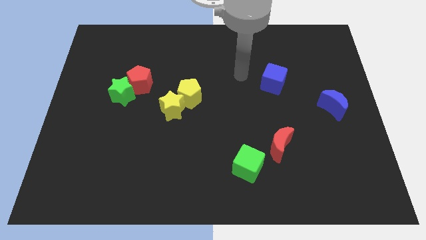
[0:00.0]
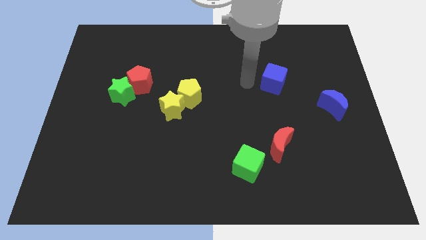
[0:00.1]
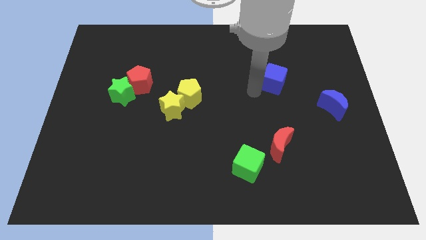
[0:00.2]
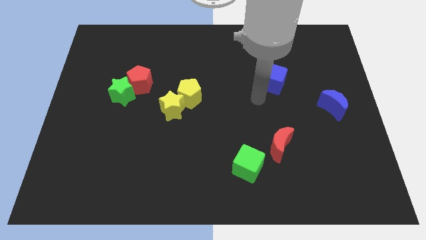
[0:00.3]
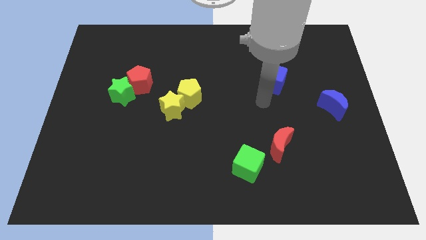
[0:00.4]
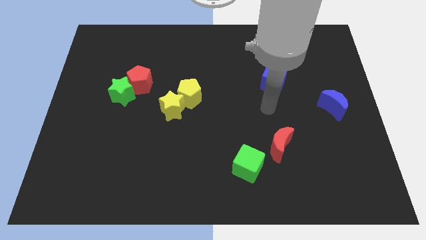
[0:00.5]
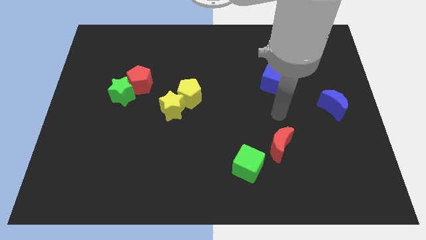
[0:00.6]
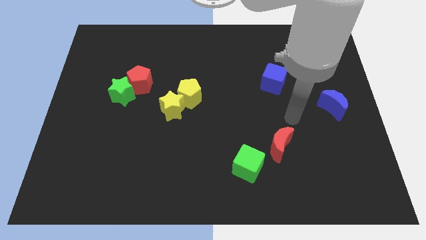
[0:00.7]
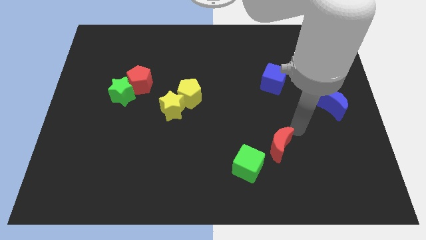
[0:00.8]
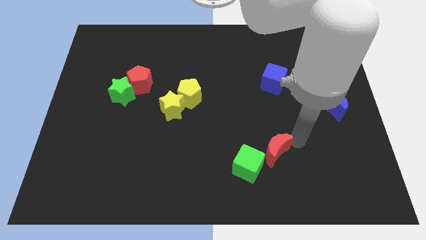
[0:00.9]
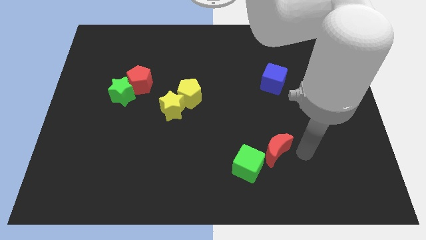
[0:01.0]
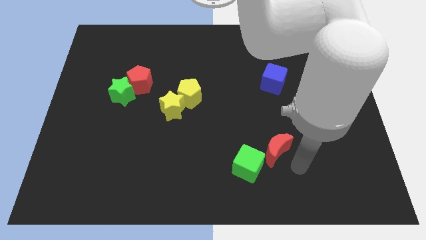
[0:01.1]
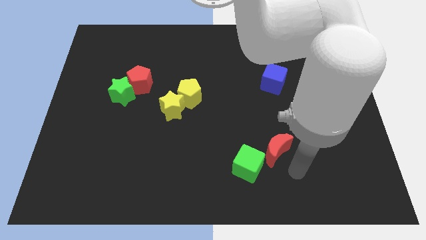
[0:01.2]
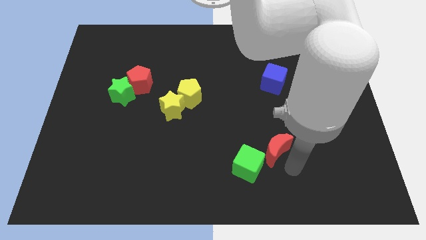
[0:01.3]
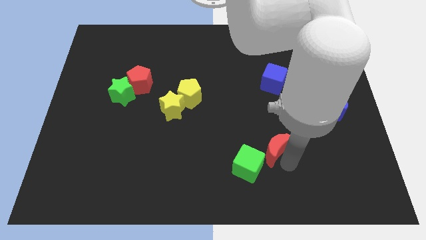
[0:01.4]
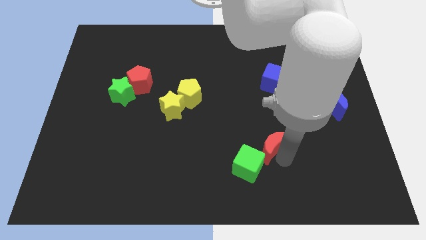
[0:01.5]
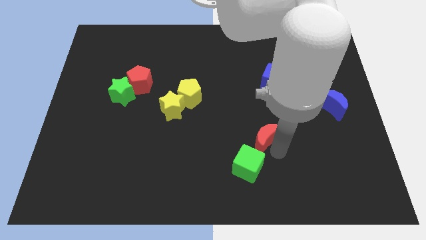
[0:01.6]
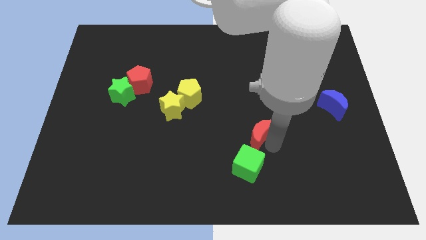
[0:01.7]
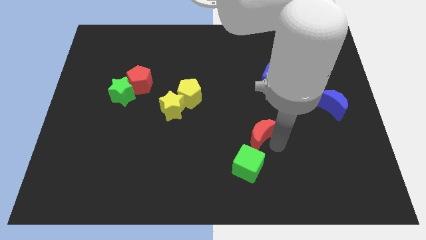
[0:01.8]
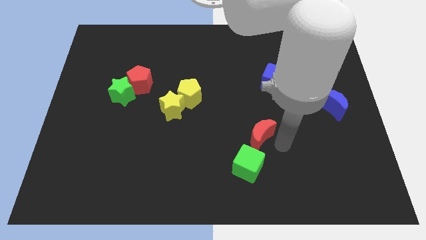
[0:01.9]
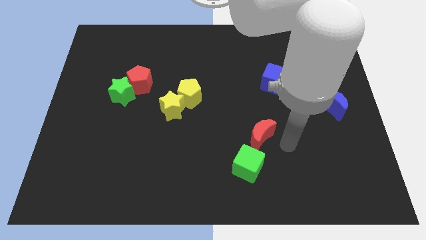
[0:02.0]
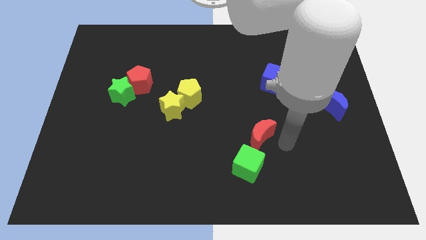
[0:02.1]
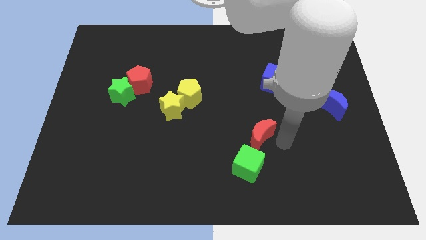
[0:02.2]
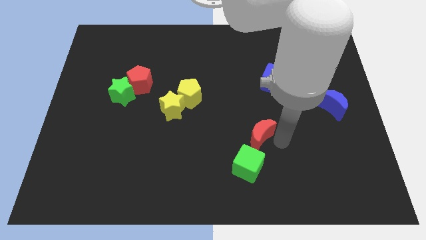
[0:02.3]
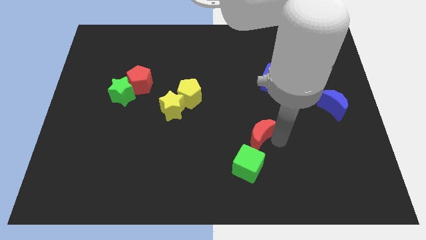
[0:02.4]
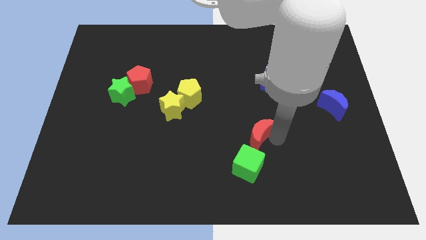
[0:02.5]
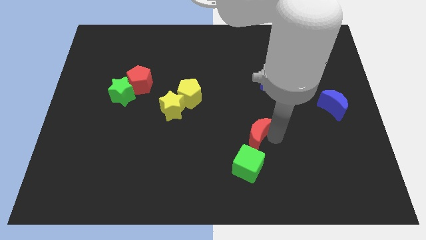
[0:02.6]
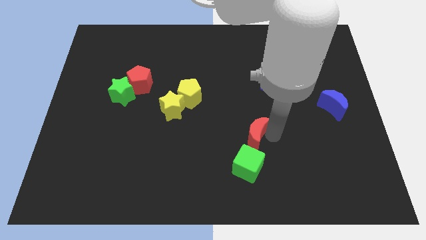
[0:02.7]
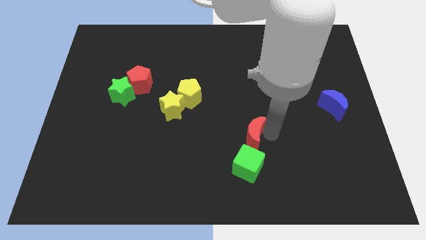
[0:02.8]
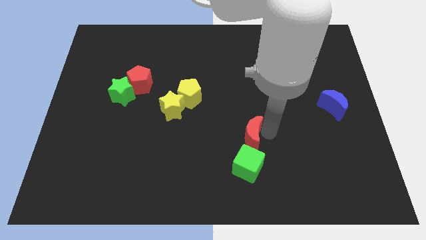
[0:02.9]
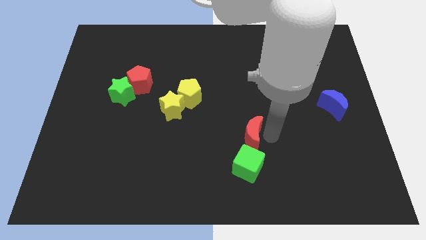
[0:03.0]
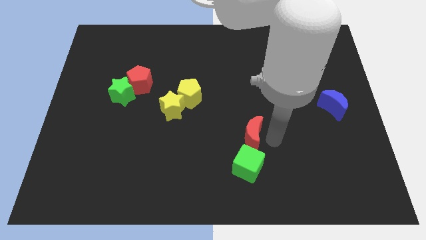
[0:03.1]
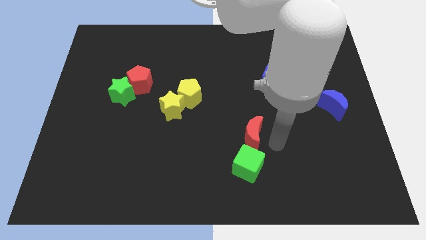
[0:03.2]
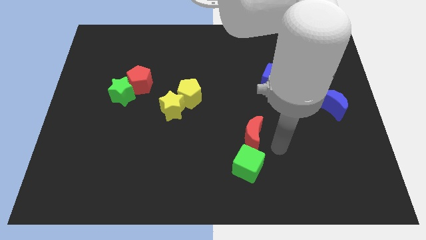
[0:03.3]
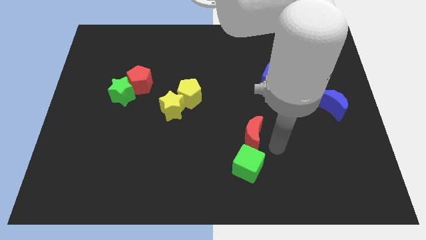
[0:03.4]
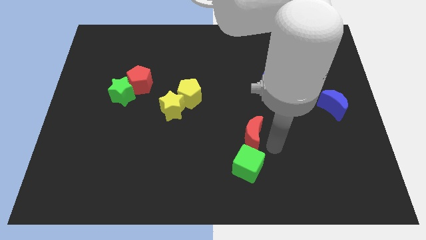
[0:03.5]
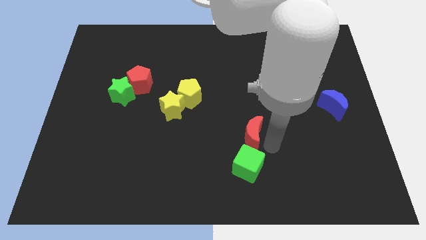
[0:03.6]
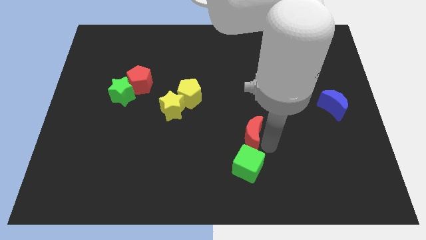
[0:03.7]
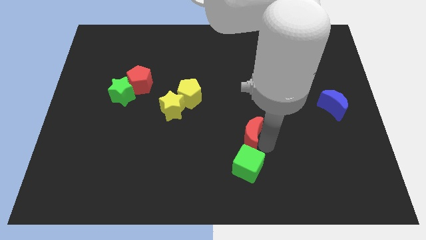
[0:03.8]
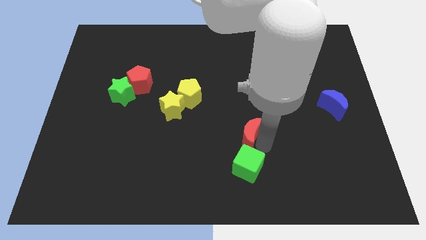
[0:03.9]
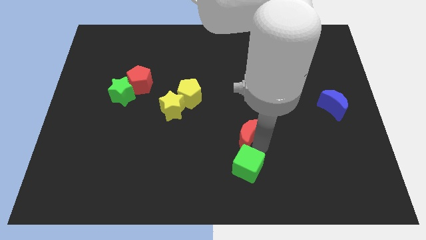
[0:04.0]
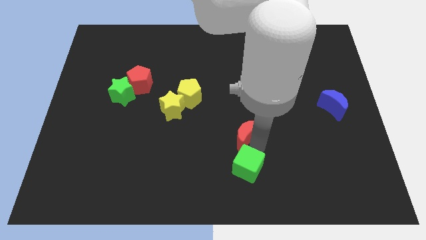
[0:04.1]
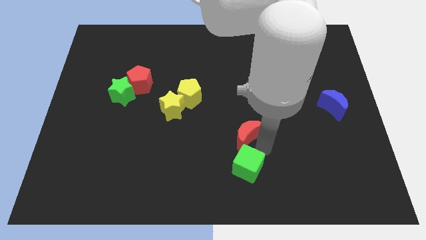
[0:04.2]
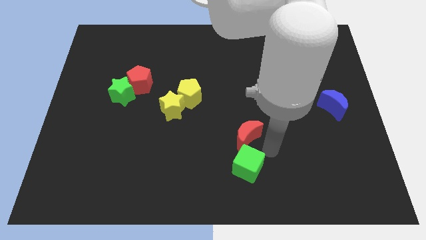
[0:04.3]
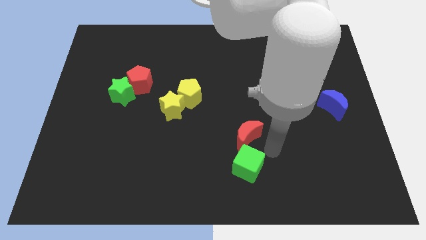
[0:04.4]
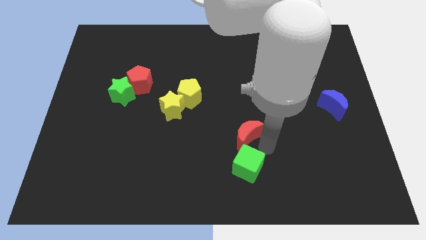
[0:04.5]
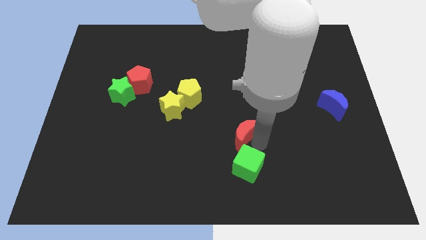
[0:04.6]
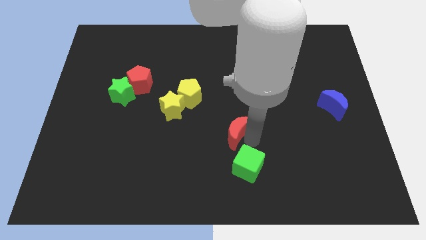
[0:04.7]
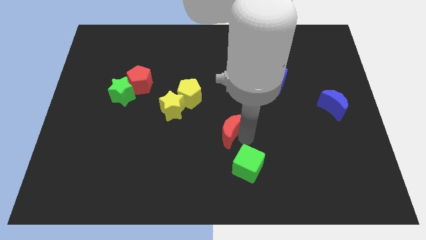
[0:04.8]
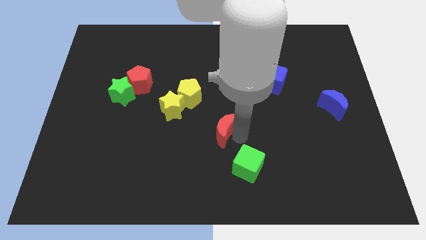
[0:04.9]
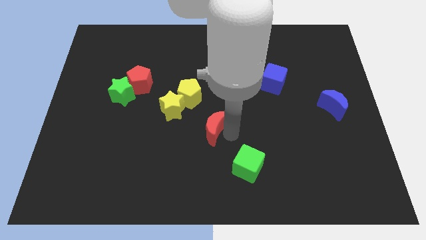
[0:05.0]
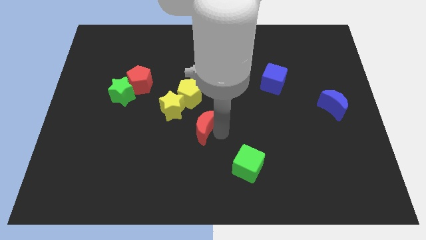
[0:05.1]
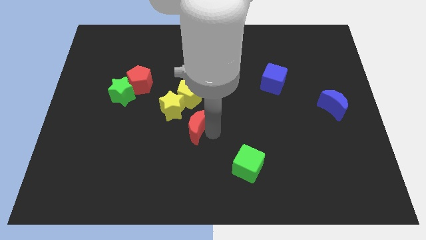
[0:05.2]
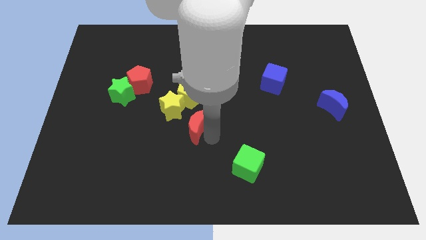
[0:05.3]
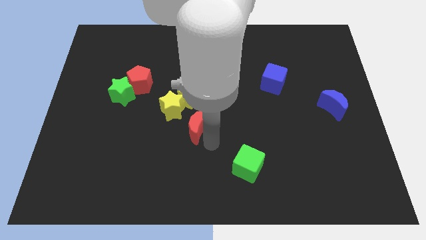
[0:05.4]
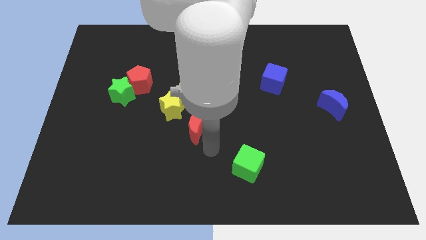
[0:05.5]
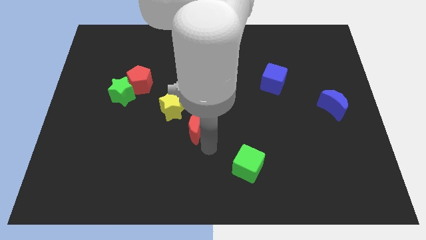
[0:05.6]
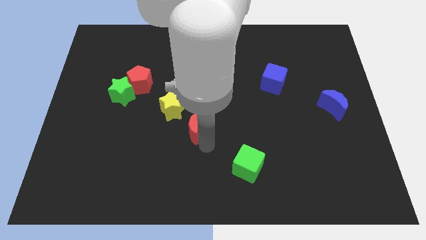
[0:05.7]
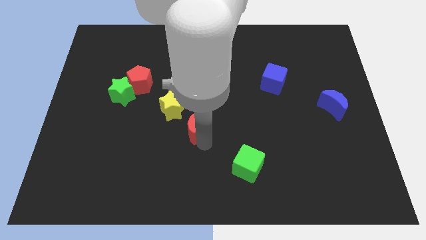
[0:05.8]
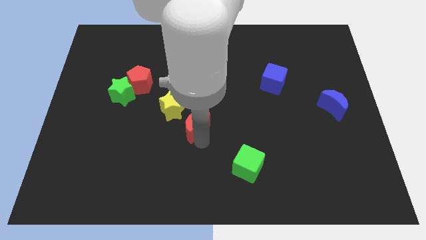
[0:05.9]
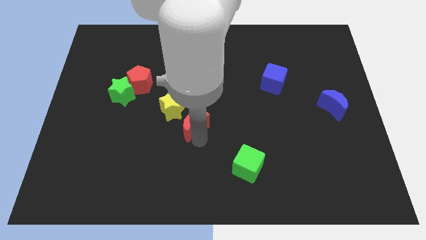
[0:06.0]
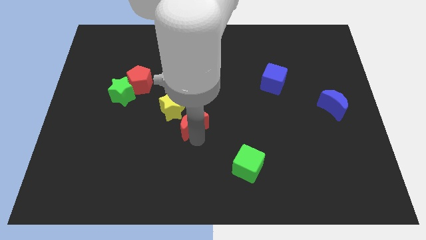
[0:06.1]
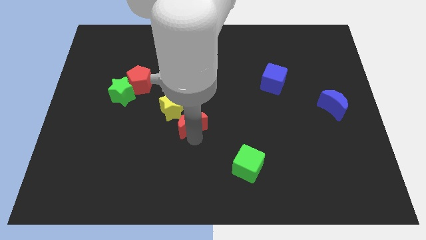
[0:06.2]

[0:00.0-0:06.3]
slide the red moon towards the yellow star

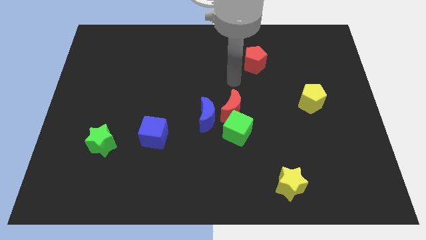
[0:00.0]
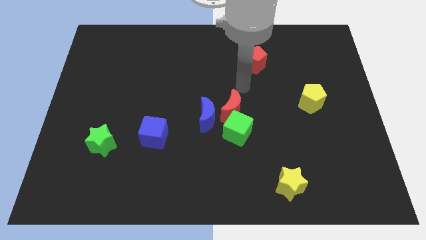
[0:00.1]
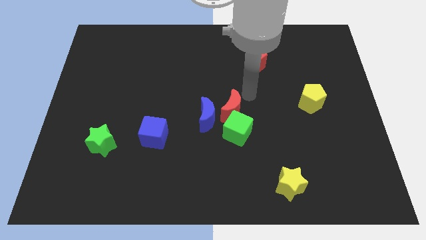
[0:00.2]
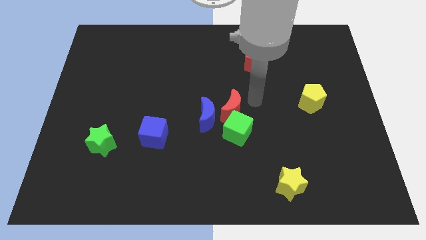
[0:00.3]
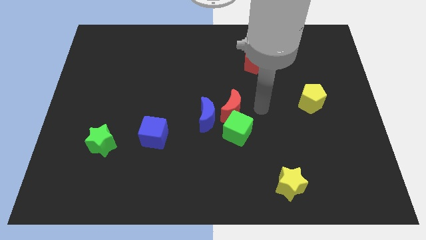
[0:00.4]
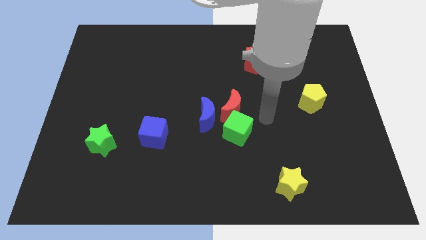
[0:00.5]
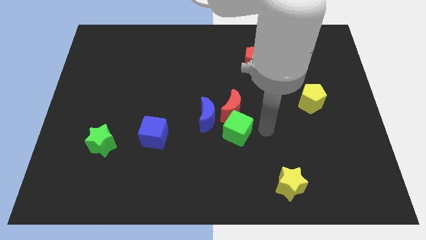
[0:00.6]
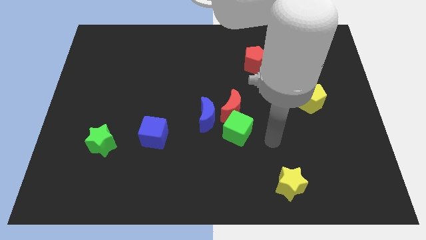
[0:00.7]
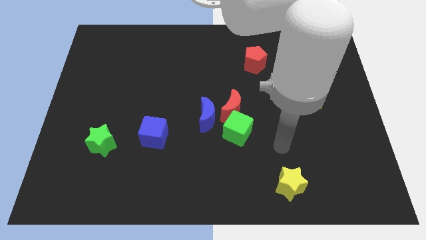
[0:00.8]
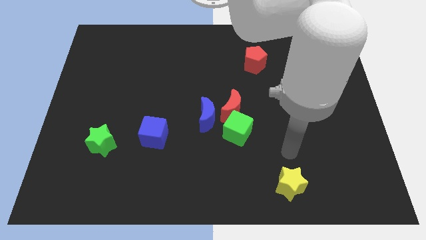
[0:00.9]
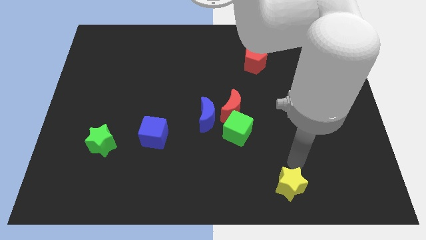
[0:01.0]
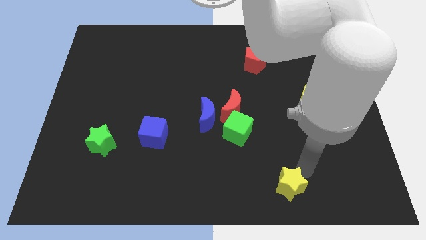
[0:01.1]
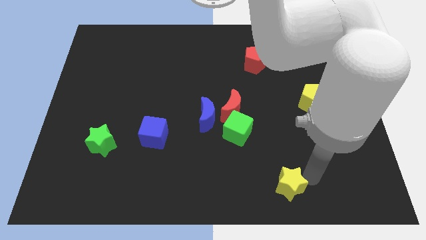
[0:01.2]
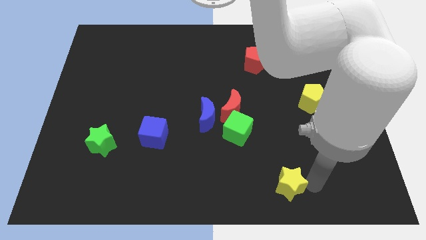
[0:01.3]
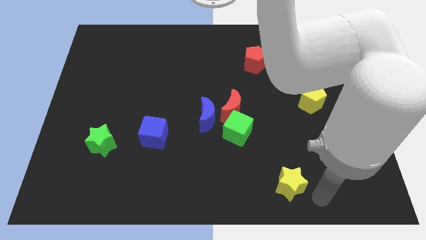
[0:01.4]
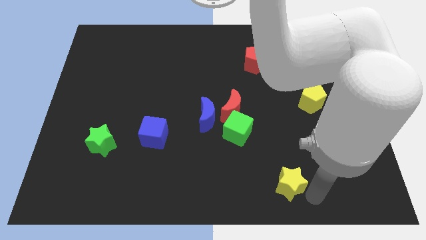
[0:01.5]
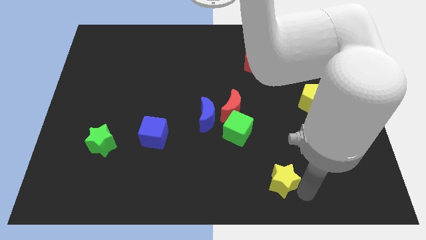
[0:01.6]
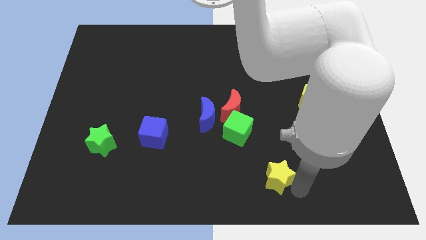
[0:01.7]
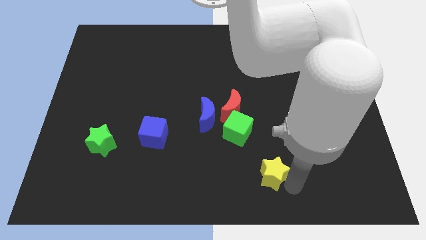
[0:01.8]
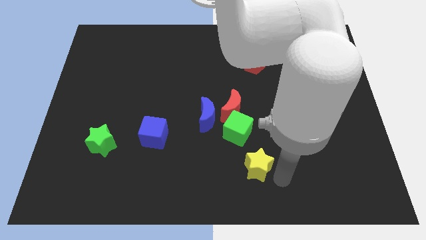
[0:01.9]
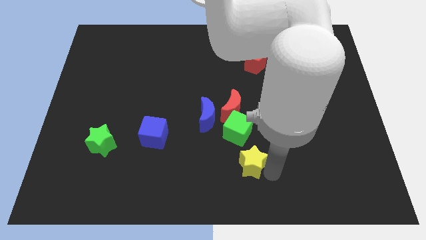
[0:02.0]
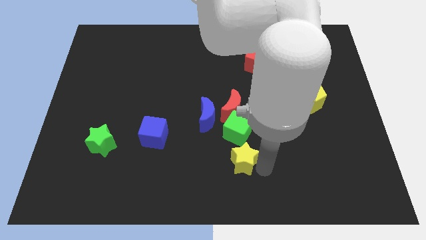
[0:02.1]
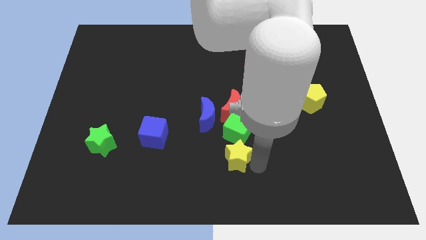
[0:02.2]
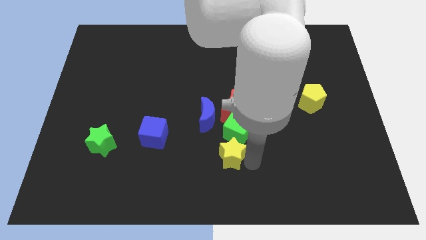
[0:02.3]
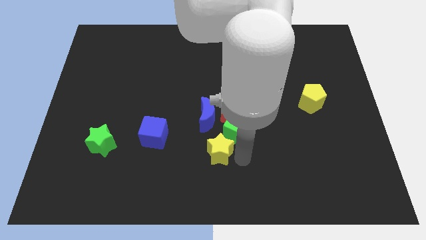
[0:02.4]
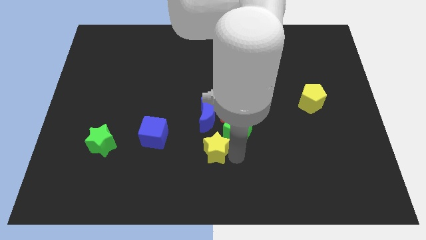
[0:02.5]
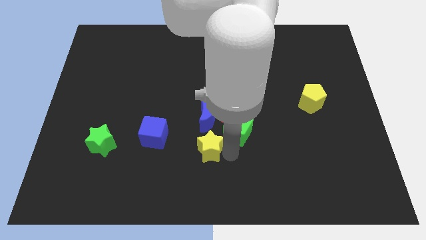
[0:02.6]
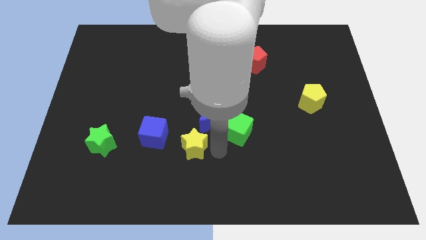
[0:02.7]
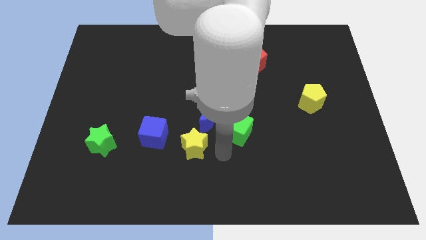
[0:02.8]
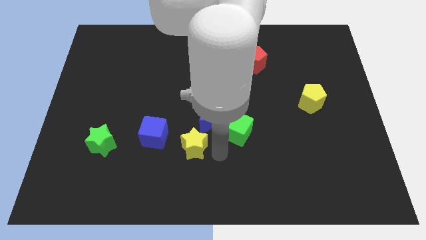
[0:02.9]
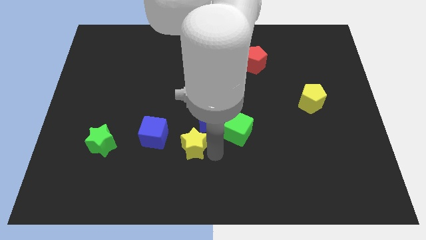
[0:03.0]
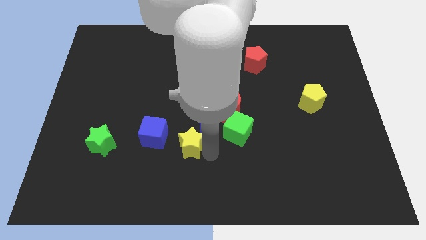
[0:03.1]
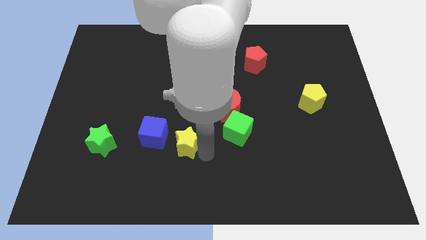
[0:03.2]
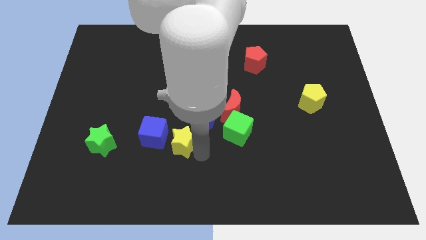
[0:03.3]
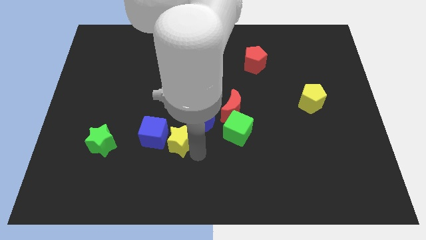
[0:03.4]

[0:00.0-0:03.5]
put the yellow star close to the blue cube
